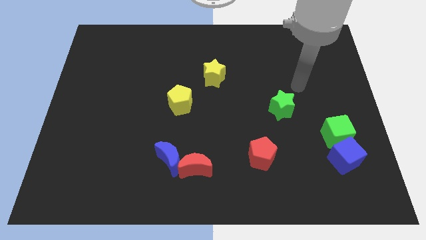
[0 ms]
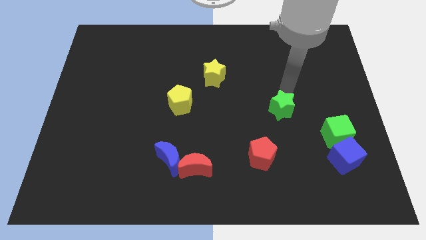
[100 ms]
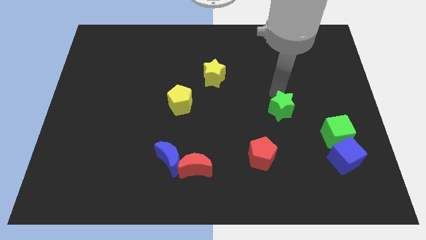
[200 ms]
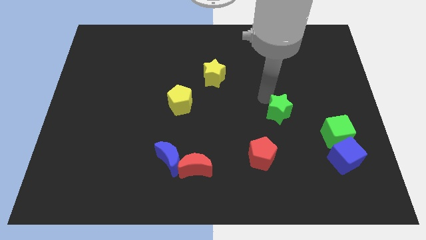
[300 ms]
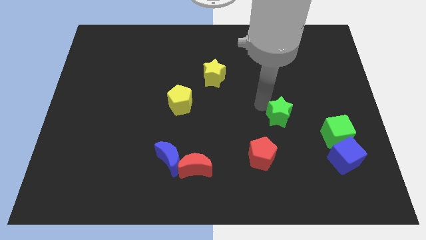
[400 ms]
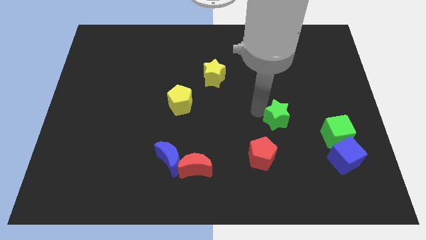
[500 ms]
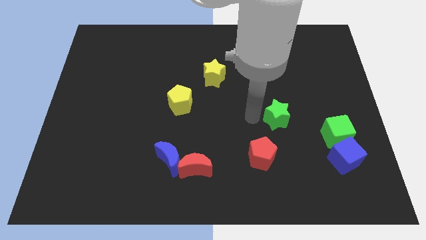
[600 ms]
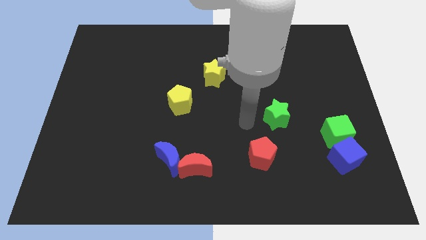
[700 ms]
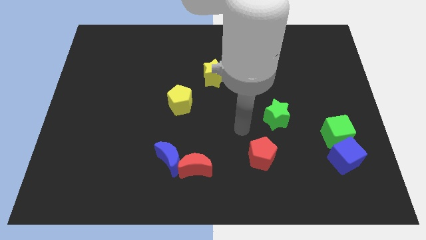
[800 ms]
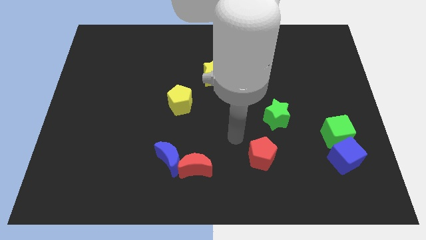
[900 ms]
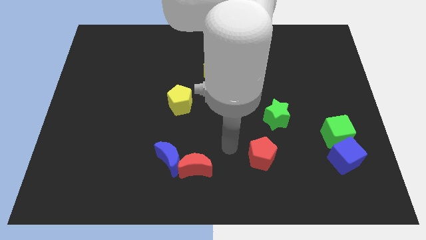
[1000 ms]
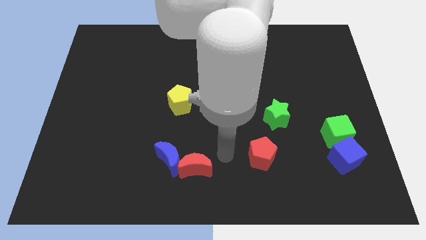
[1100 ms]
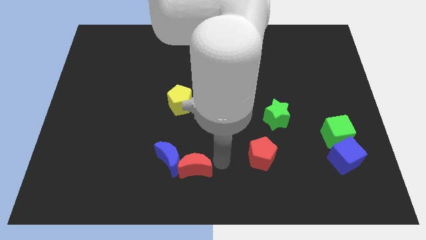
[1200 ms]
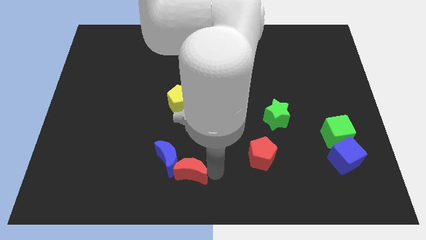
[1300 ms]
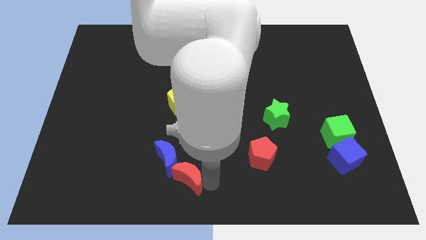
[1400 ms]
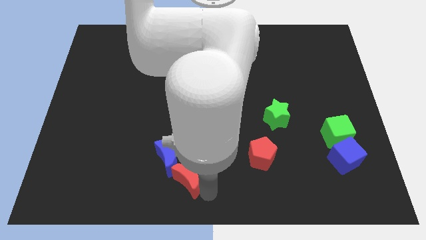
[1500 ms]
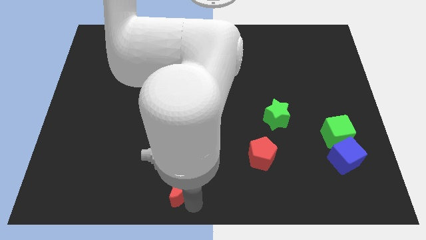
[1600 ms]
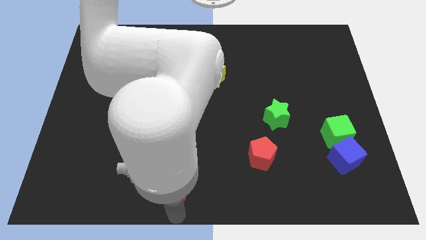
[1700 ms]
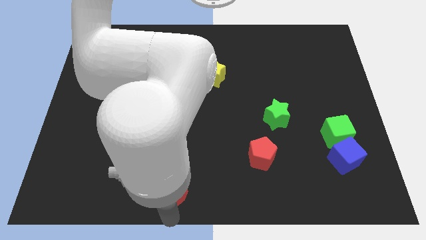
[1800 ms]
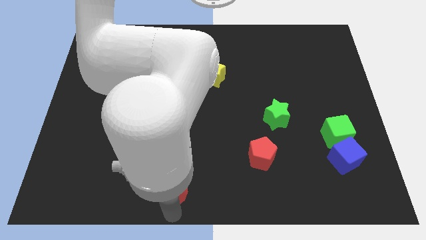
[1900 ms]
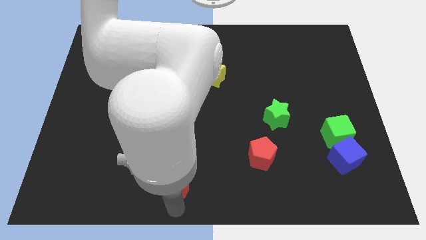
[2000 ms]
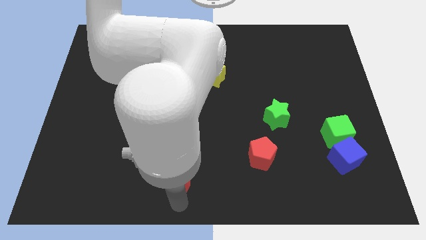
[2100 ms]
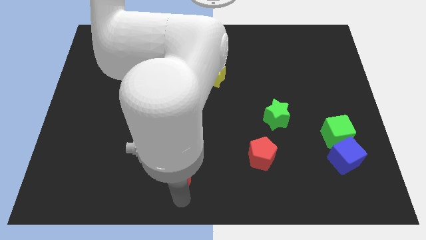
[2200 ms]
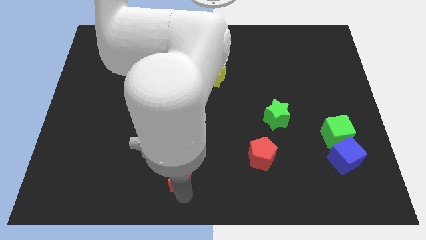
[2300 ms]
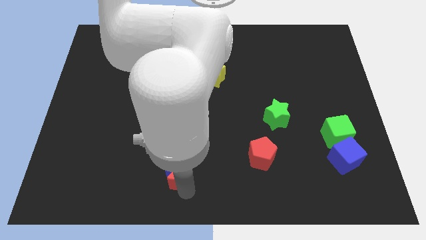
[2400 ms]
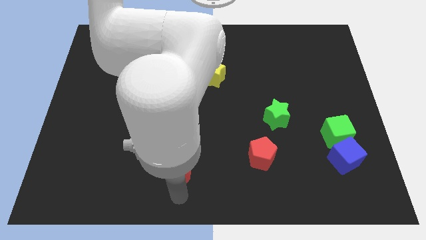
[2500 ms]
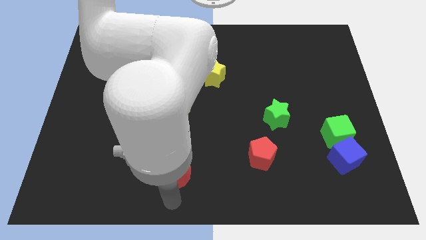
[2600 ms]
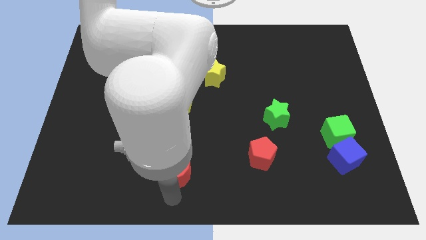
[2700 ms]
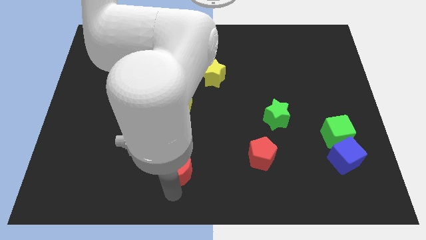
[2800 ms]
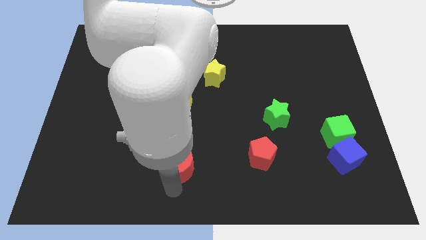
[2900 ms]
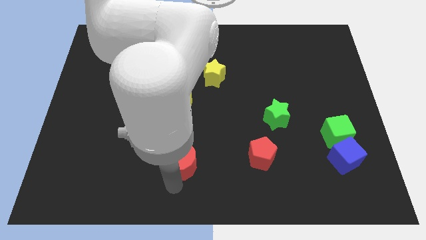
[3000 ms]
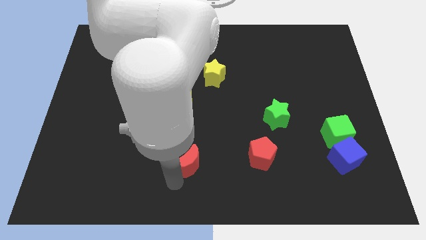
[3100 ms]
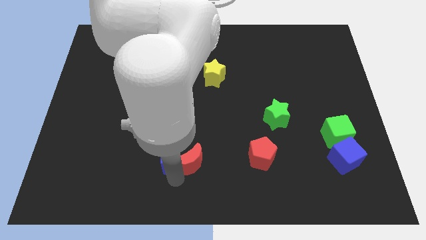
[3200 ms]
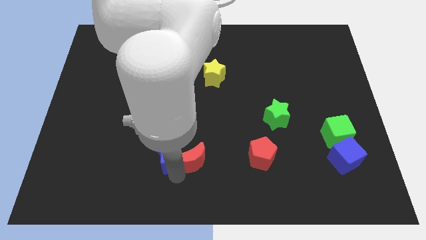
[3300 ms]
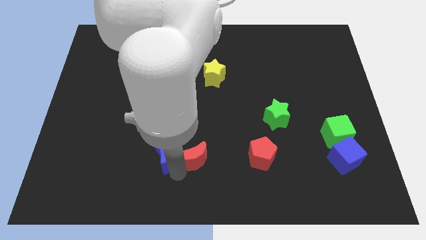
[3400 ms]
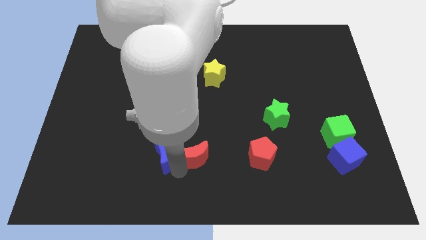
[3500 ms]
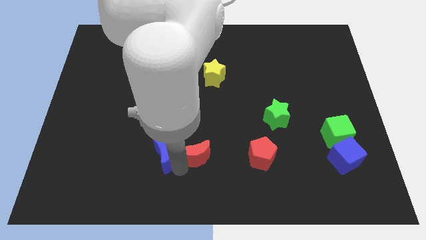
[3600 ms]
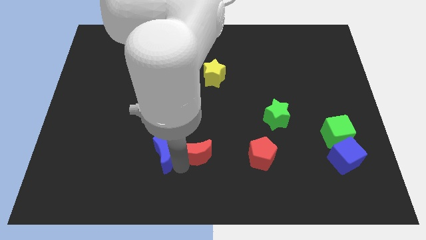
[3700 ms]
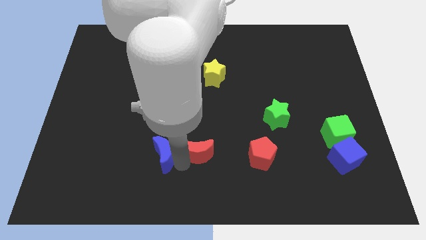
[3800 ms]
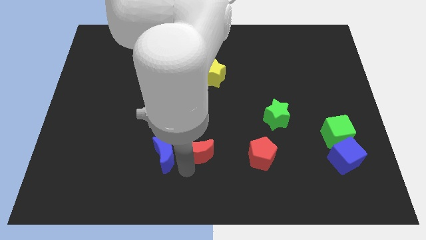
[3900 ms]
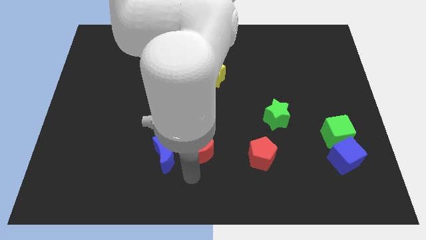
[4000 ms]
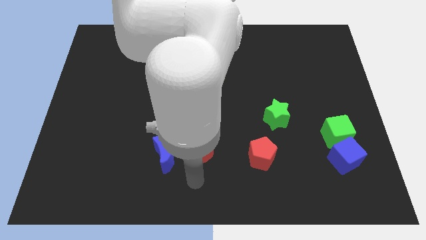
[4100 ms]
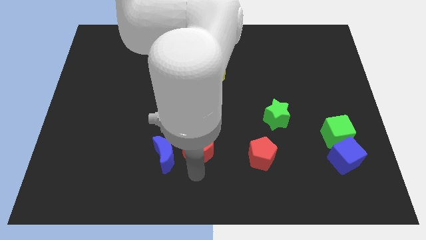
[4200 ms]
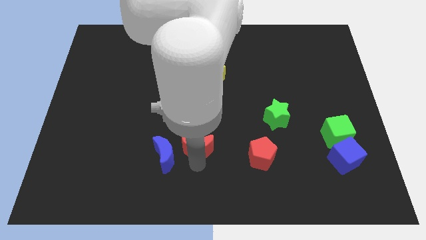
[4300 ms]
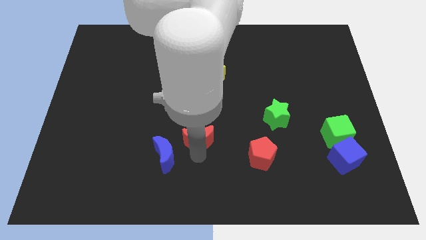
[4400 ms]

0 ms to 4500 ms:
move the red moon to the bottom right side of the yellow pentagon

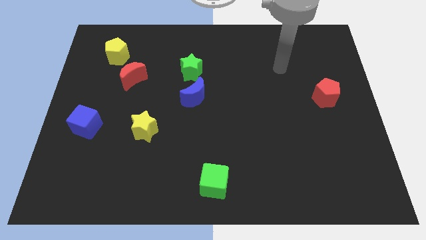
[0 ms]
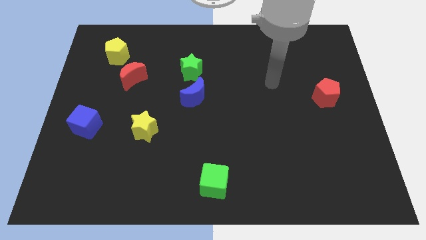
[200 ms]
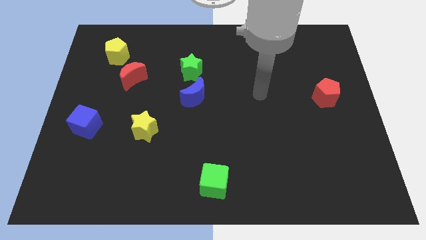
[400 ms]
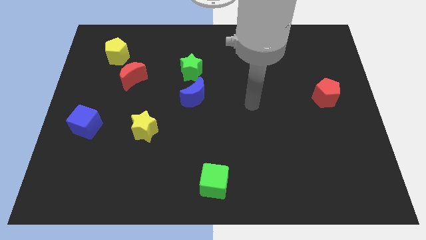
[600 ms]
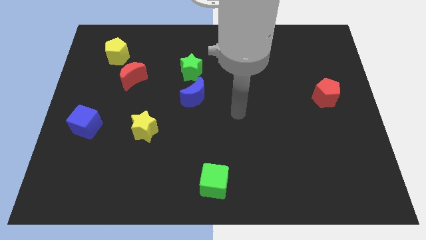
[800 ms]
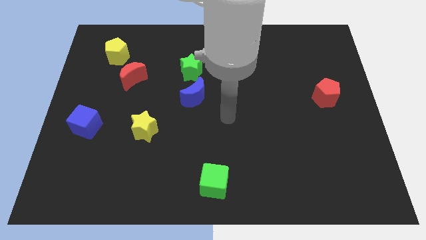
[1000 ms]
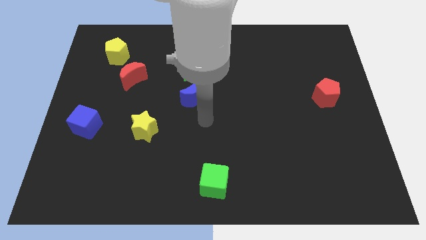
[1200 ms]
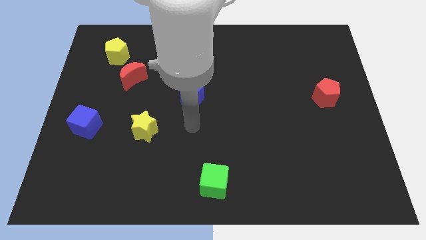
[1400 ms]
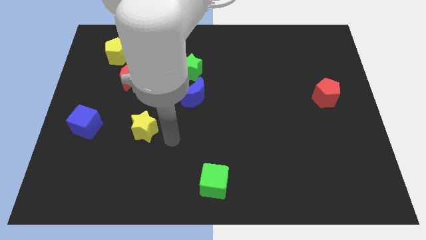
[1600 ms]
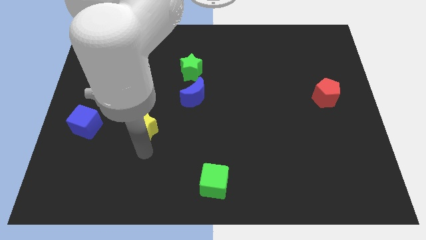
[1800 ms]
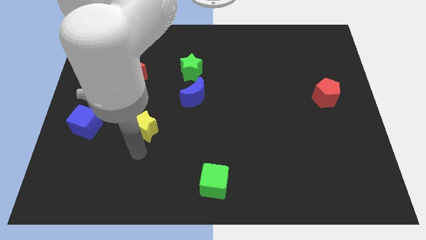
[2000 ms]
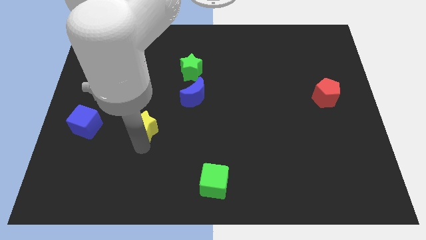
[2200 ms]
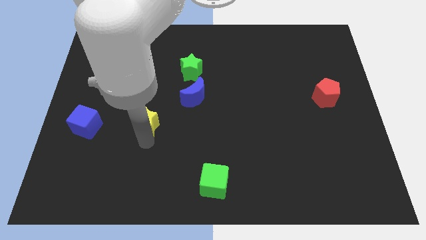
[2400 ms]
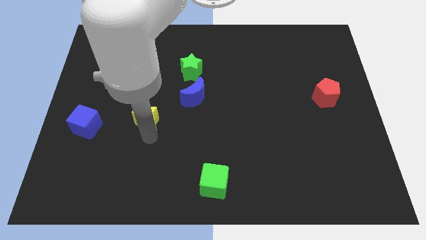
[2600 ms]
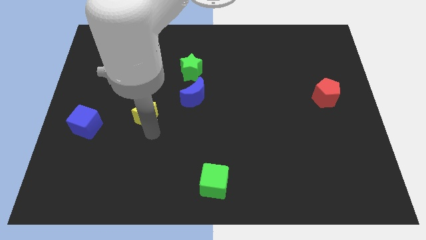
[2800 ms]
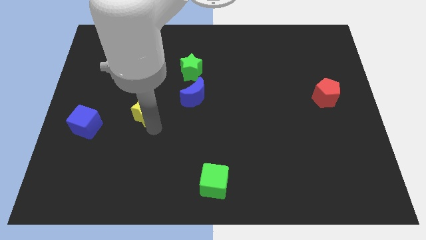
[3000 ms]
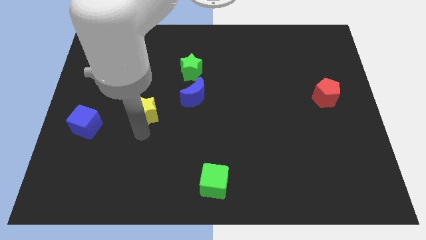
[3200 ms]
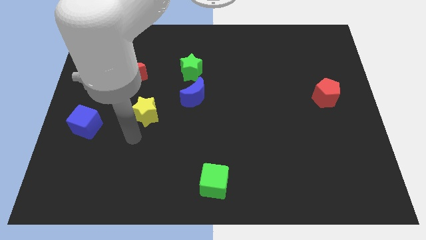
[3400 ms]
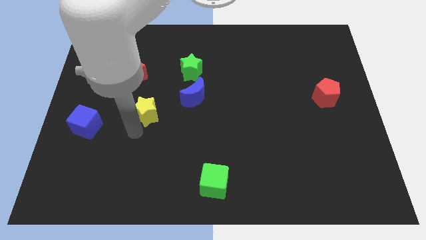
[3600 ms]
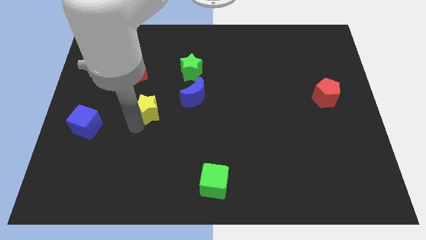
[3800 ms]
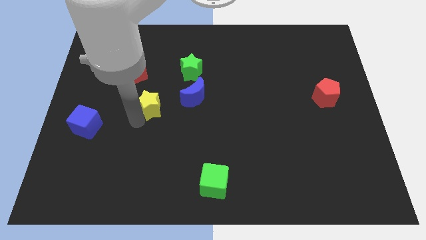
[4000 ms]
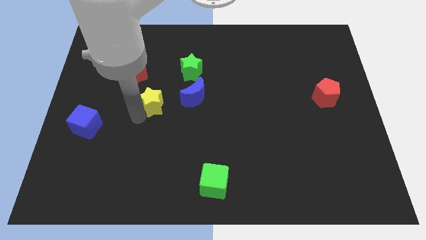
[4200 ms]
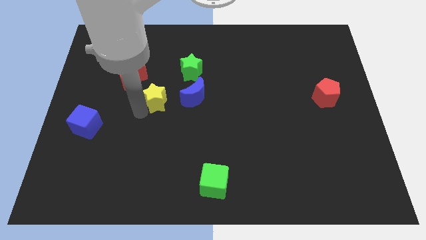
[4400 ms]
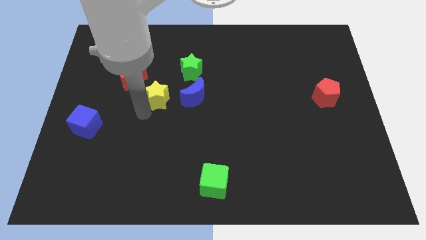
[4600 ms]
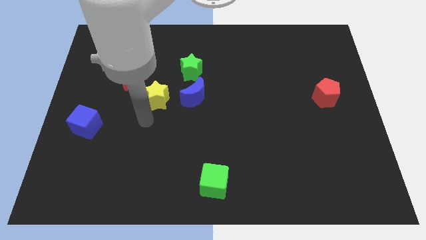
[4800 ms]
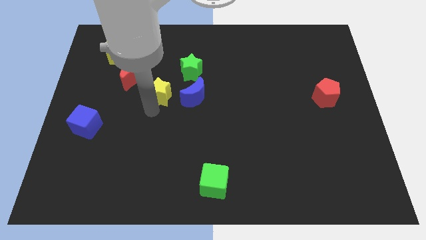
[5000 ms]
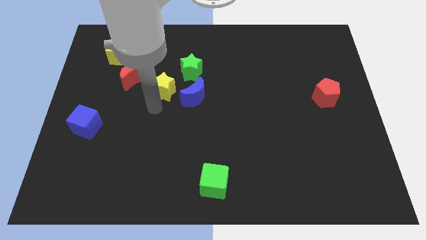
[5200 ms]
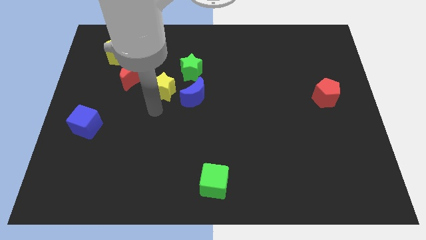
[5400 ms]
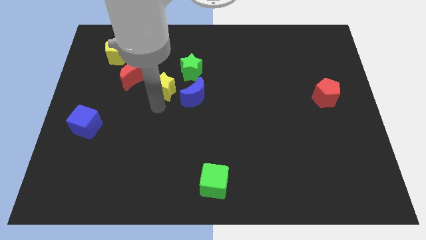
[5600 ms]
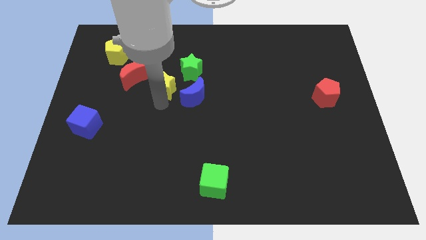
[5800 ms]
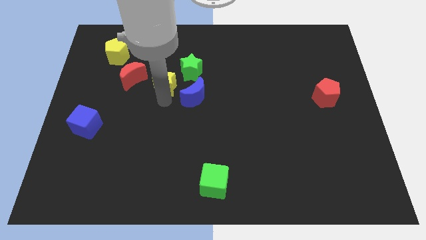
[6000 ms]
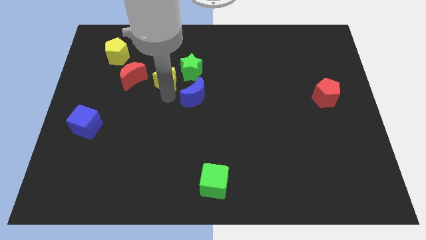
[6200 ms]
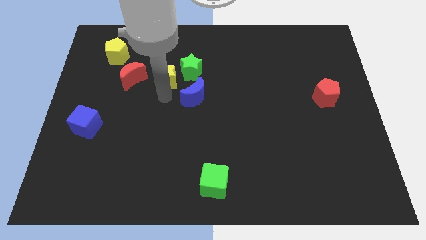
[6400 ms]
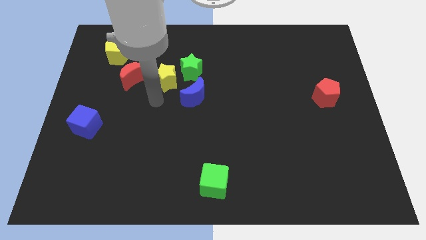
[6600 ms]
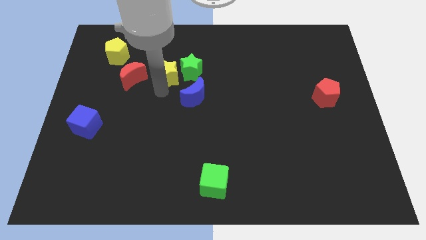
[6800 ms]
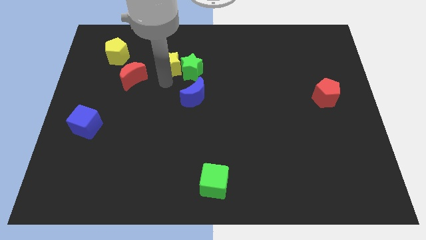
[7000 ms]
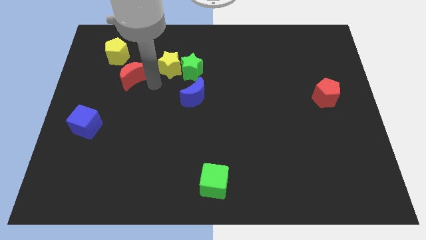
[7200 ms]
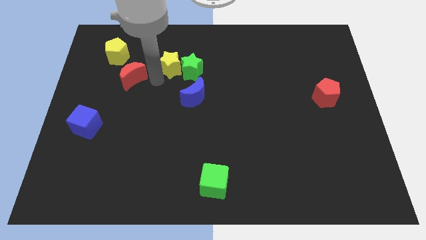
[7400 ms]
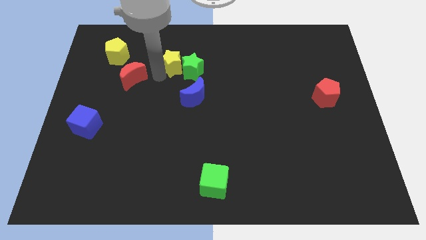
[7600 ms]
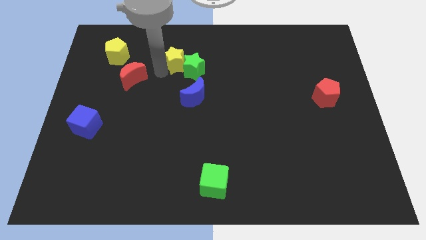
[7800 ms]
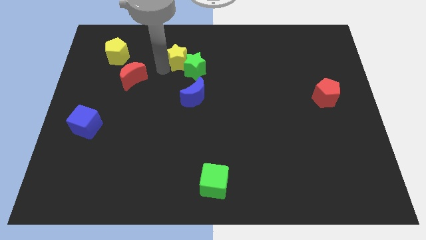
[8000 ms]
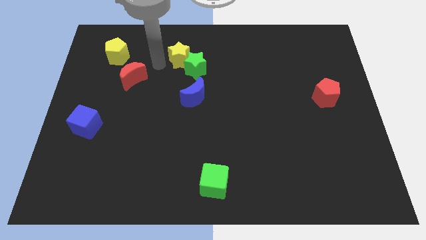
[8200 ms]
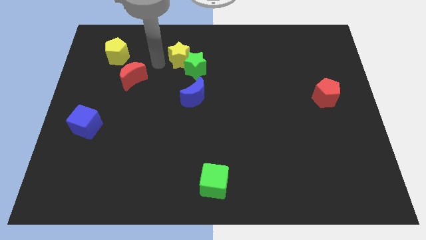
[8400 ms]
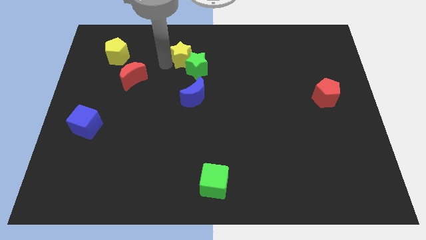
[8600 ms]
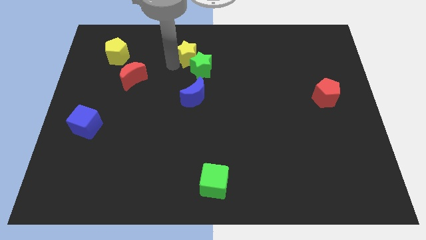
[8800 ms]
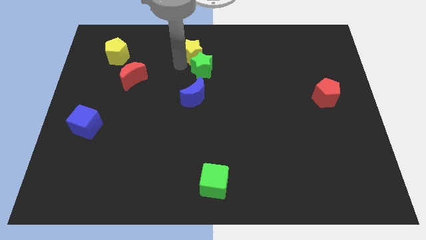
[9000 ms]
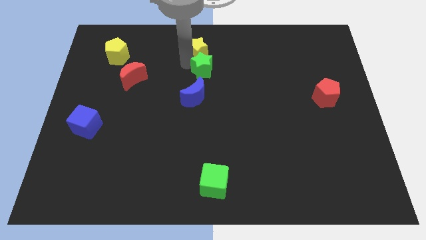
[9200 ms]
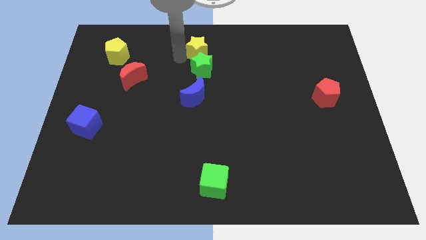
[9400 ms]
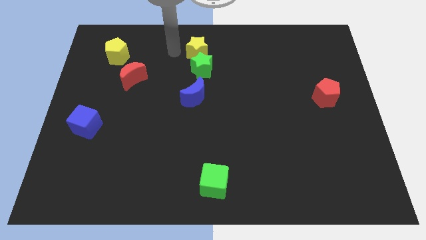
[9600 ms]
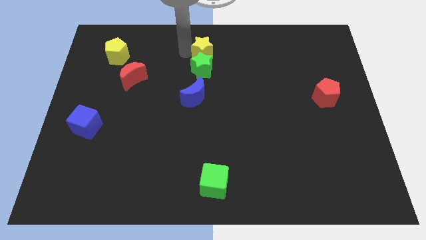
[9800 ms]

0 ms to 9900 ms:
slide the yellow star to the top right side of the green star
